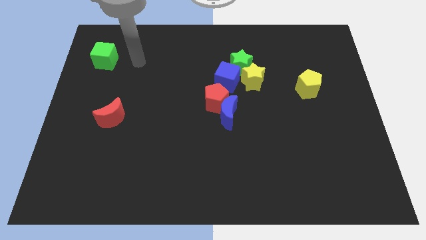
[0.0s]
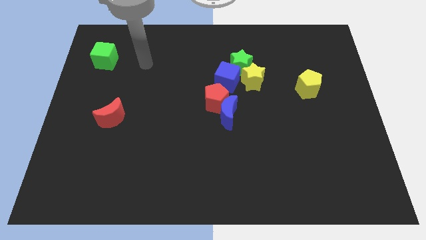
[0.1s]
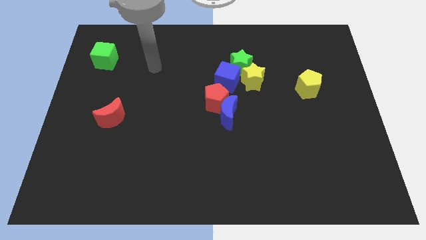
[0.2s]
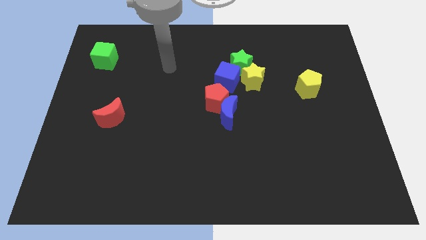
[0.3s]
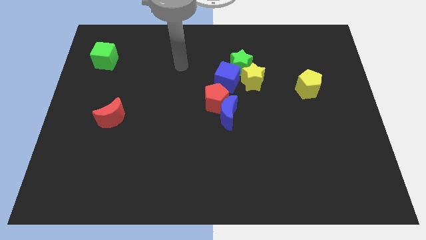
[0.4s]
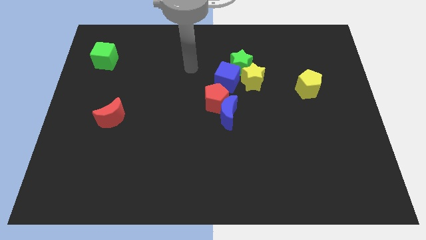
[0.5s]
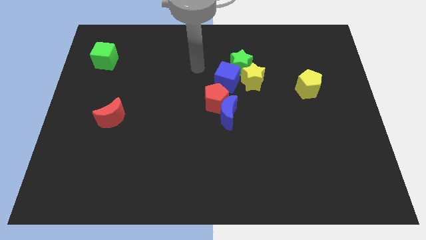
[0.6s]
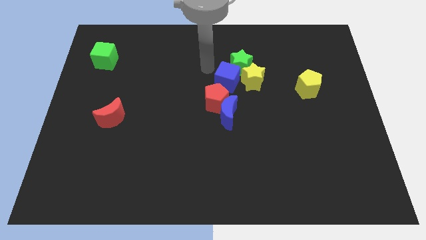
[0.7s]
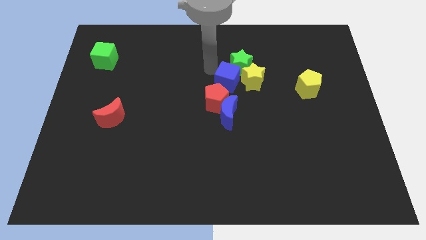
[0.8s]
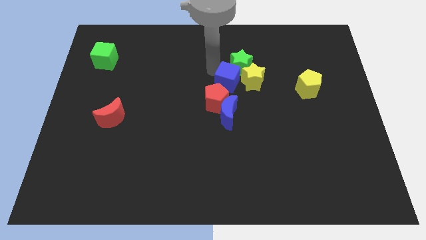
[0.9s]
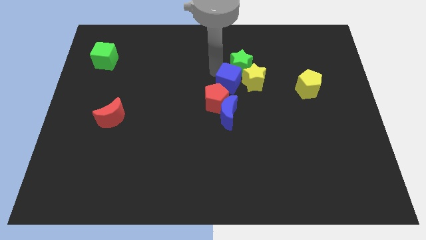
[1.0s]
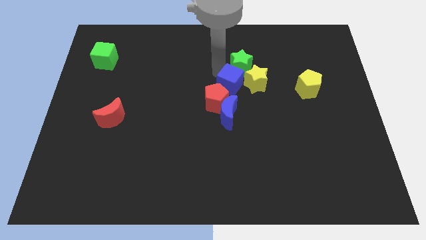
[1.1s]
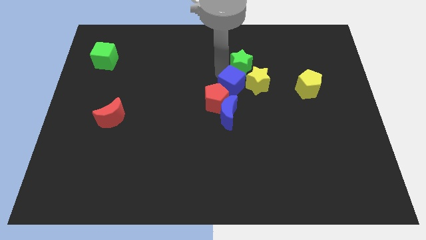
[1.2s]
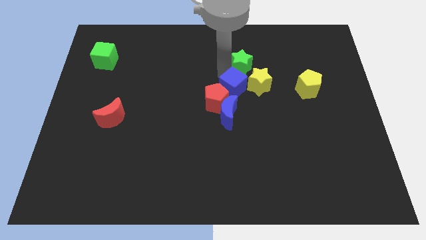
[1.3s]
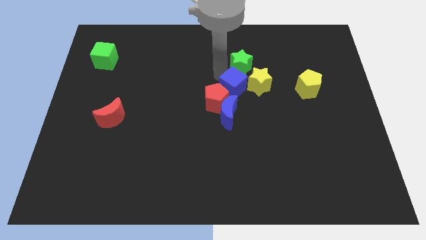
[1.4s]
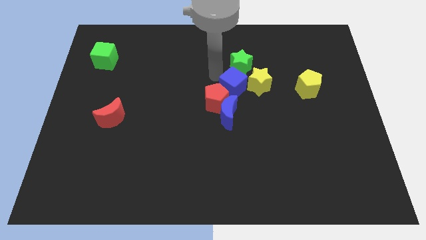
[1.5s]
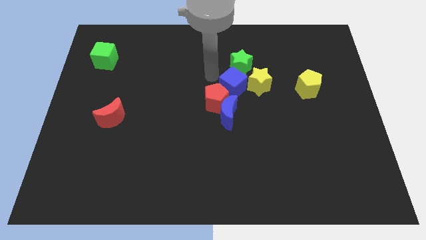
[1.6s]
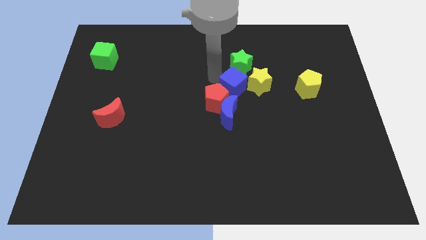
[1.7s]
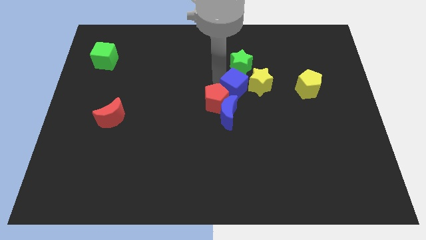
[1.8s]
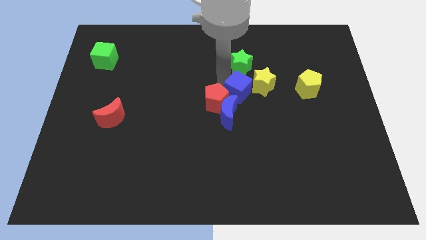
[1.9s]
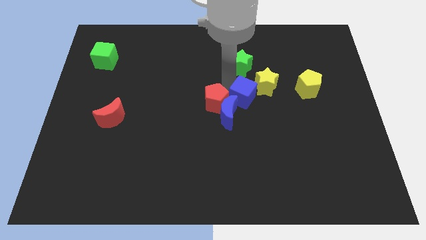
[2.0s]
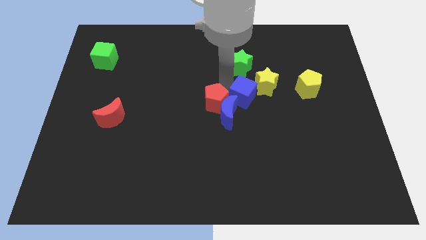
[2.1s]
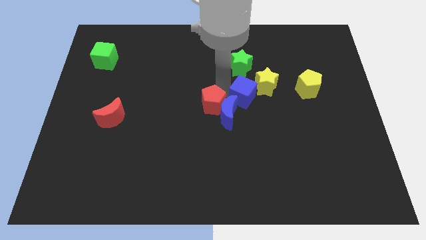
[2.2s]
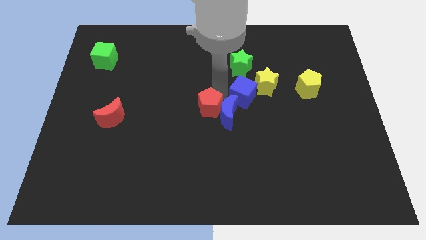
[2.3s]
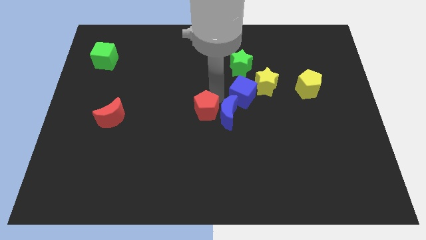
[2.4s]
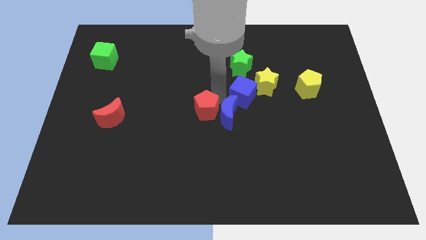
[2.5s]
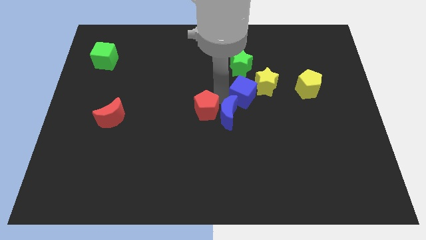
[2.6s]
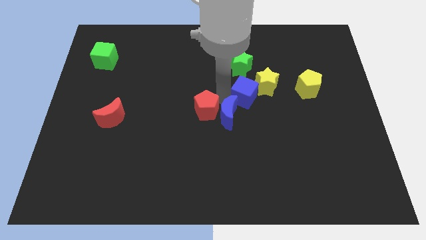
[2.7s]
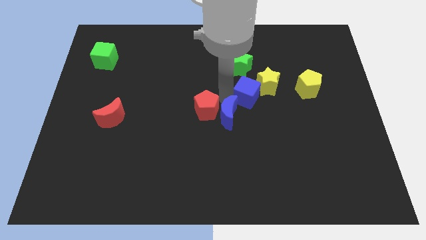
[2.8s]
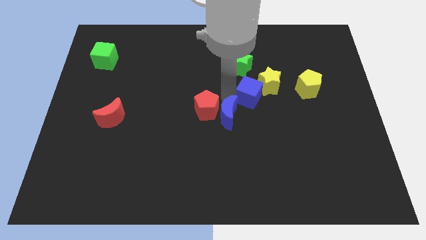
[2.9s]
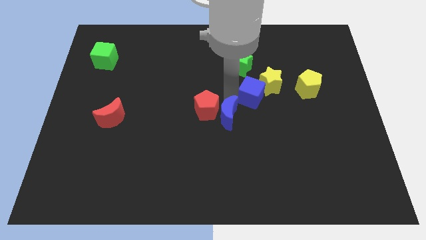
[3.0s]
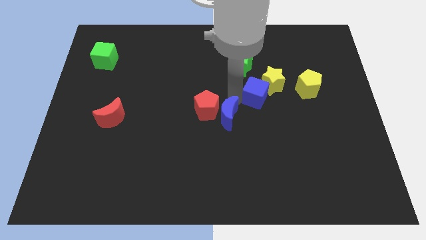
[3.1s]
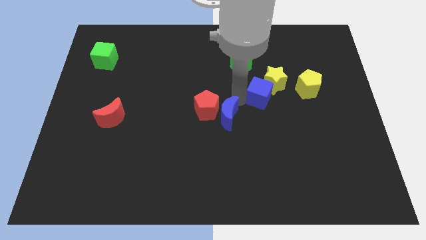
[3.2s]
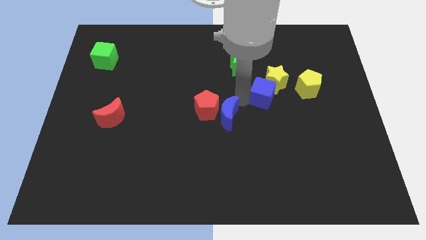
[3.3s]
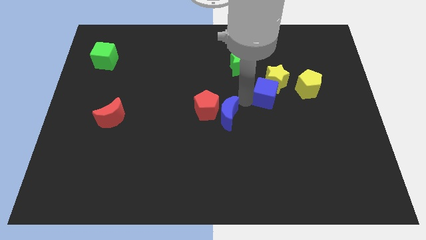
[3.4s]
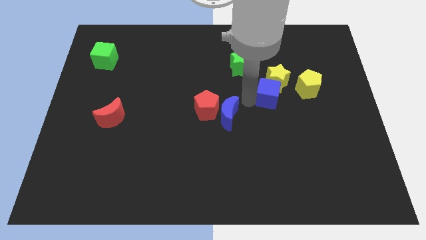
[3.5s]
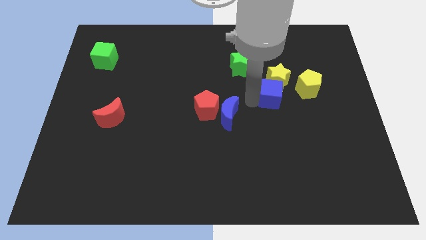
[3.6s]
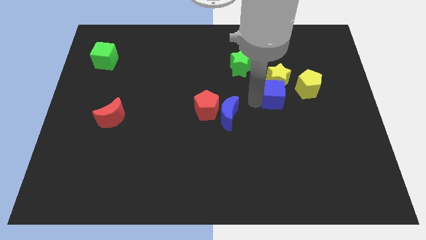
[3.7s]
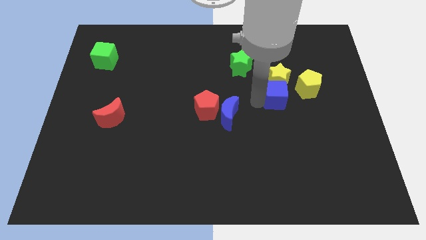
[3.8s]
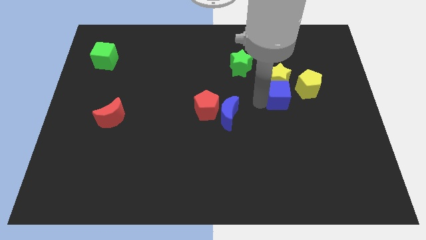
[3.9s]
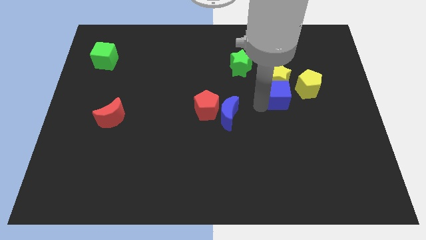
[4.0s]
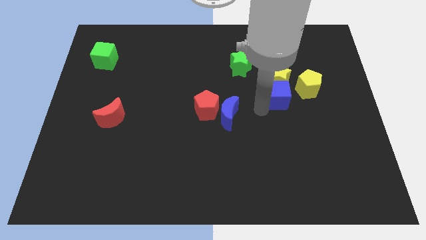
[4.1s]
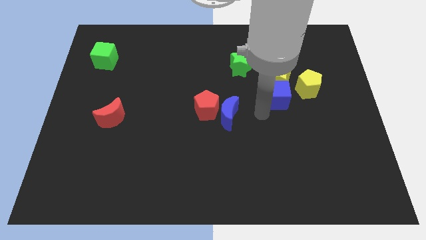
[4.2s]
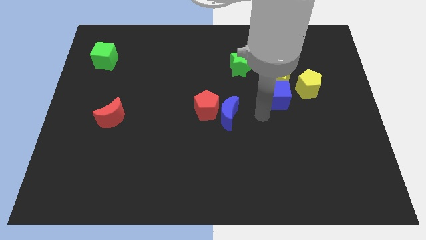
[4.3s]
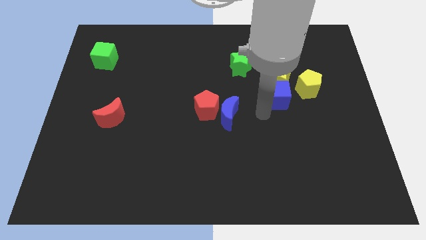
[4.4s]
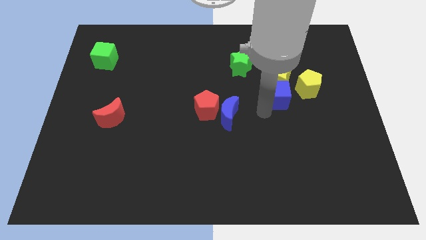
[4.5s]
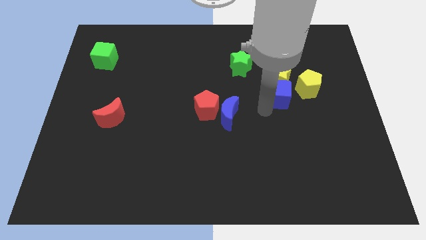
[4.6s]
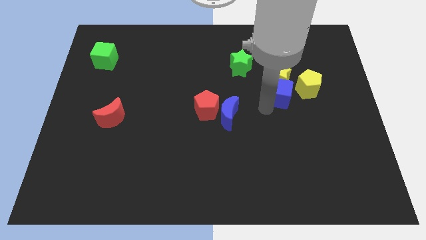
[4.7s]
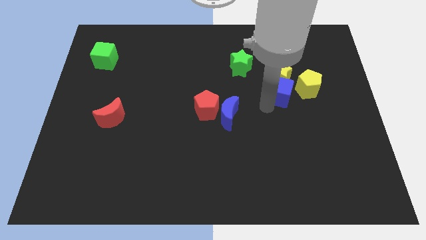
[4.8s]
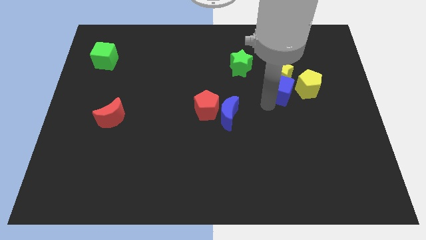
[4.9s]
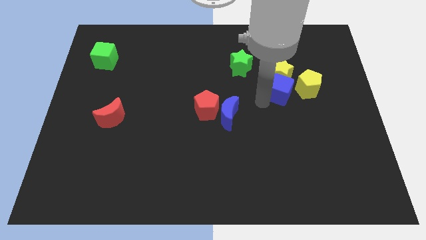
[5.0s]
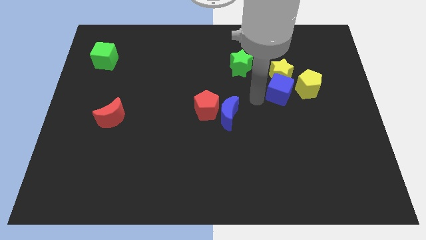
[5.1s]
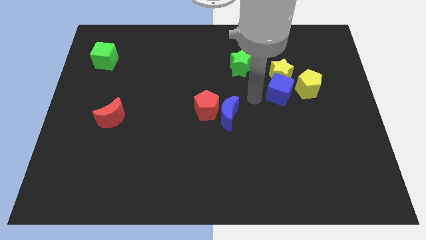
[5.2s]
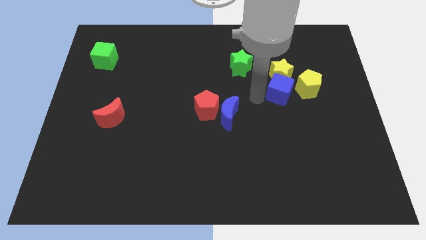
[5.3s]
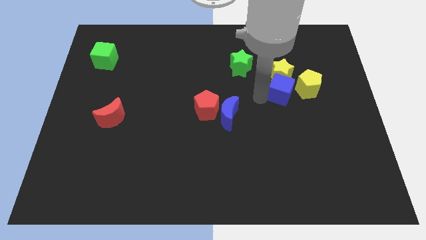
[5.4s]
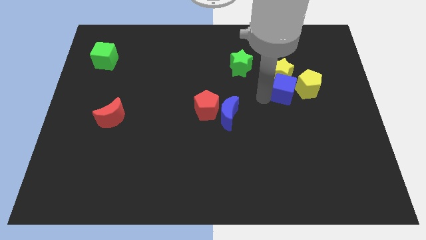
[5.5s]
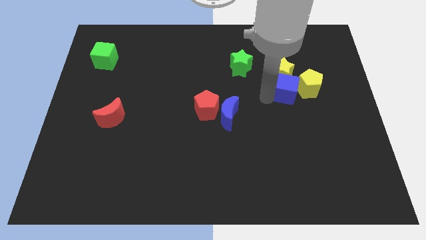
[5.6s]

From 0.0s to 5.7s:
put the blue cube towards the yellow pentagon

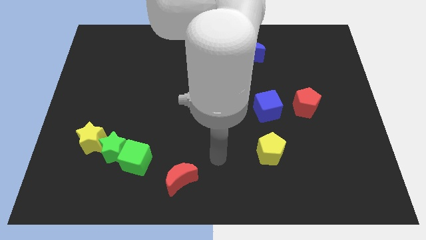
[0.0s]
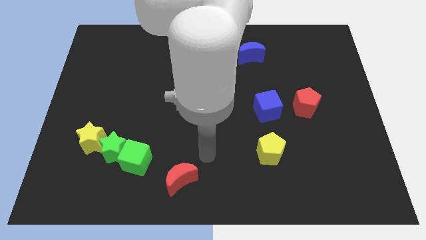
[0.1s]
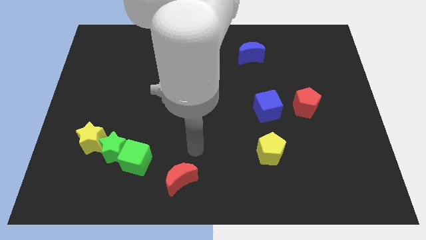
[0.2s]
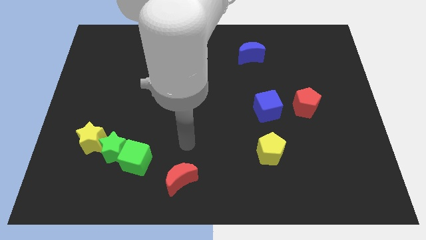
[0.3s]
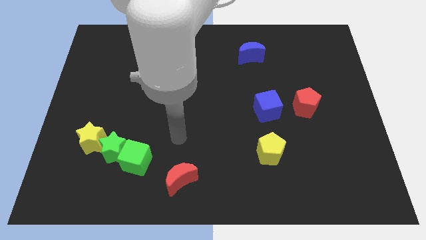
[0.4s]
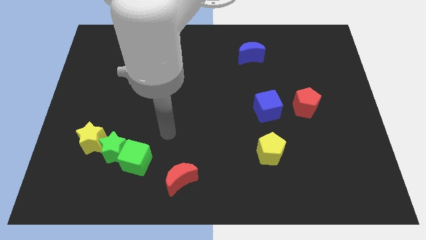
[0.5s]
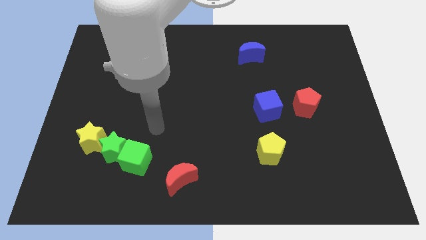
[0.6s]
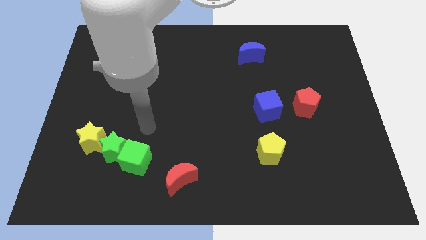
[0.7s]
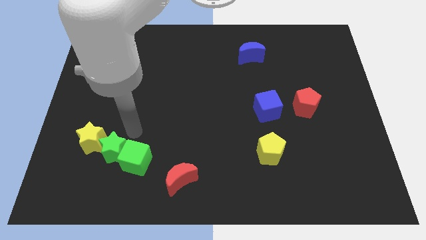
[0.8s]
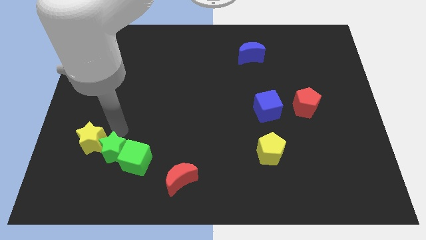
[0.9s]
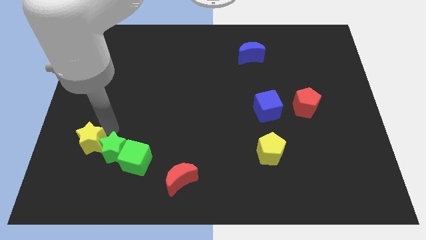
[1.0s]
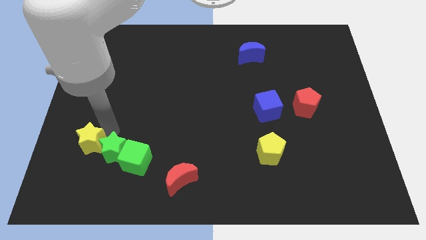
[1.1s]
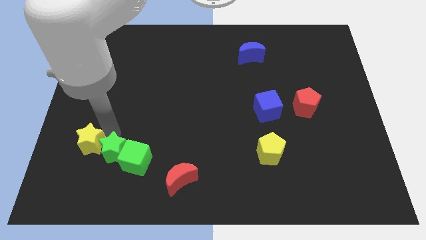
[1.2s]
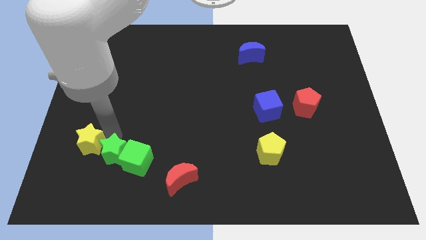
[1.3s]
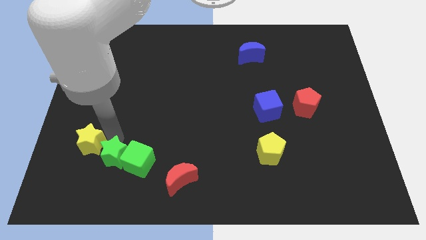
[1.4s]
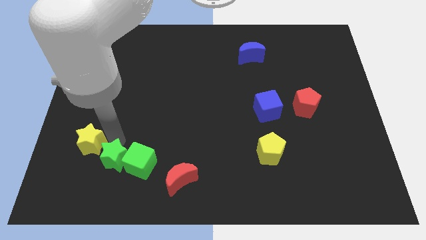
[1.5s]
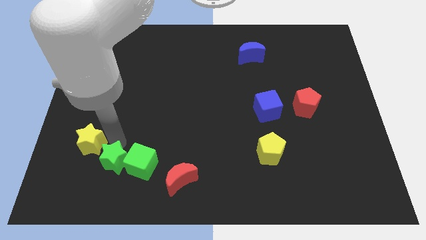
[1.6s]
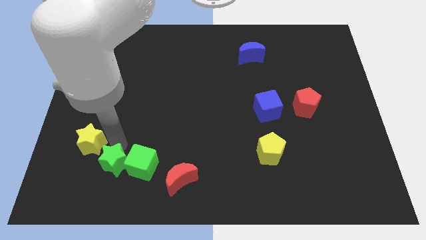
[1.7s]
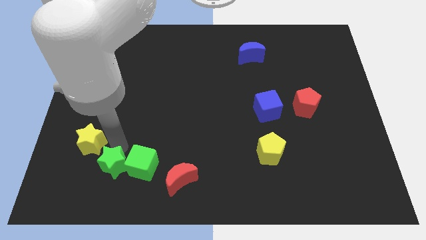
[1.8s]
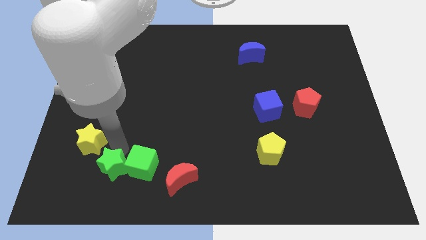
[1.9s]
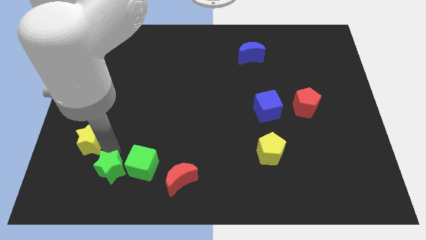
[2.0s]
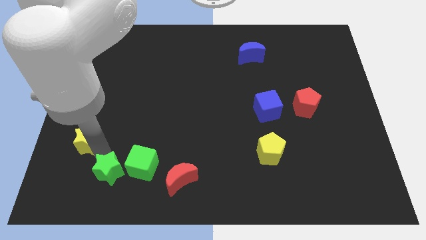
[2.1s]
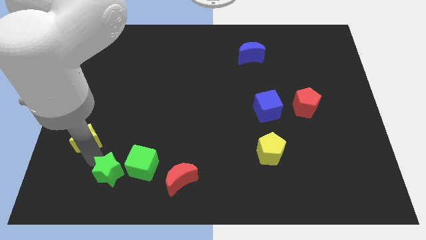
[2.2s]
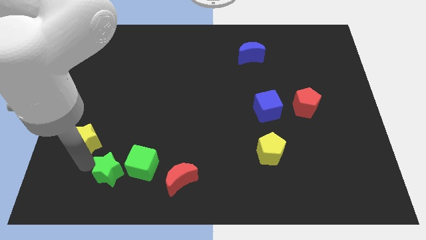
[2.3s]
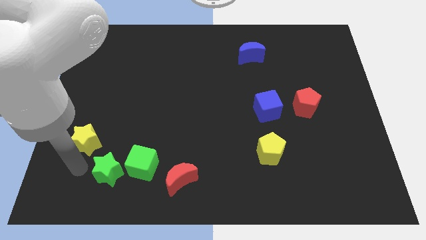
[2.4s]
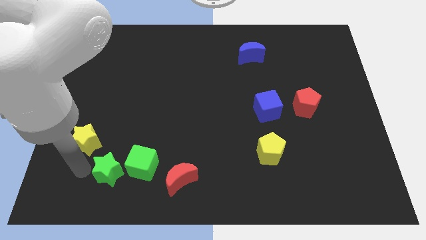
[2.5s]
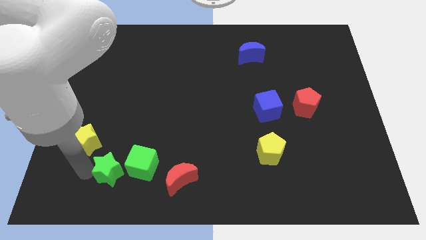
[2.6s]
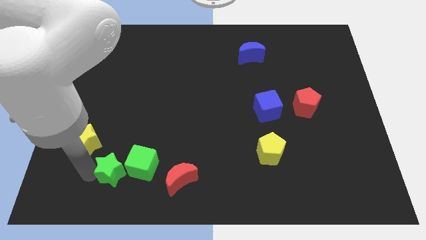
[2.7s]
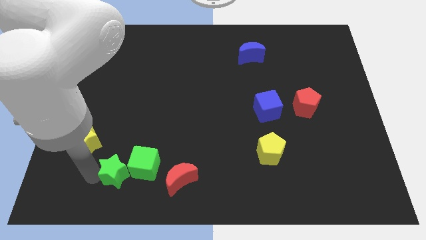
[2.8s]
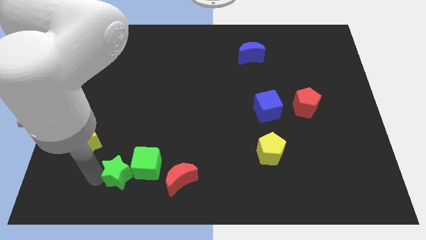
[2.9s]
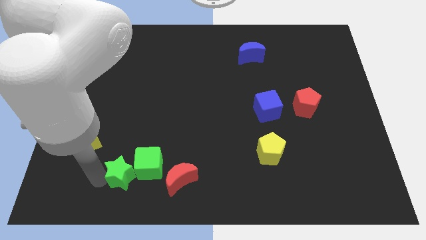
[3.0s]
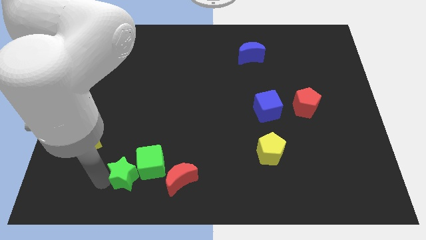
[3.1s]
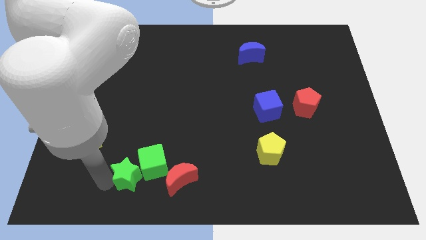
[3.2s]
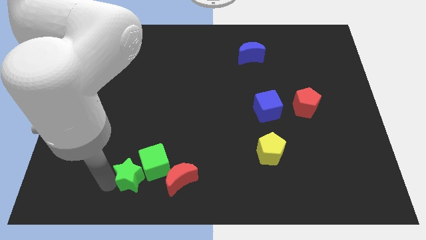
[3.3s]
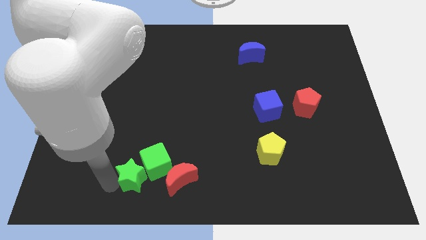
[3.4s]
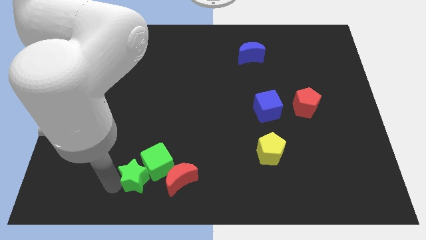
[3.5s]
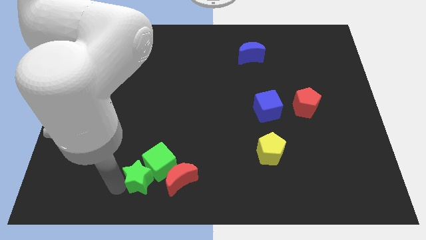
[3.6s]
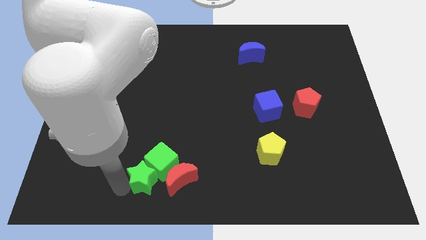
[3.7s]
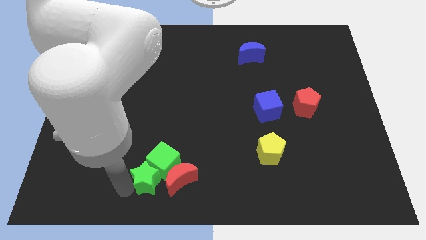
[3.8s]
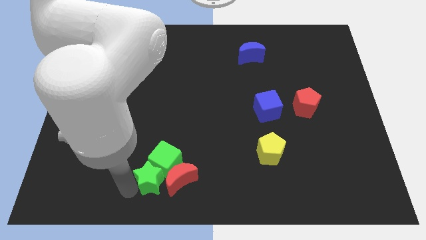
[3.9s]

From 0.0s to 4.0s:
slide the green star next to the red moon
